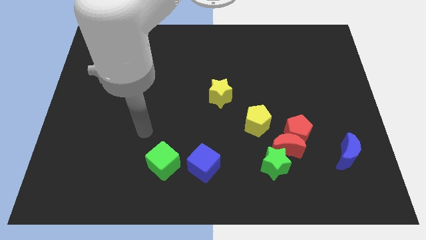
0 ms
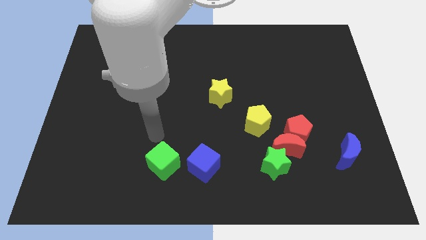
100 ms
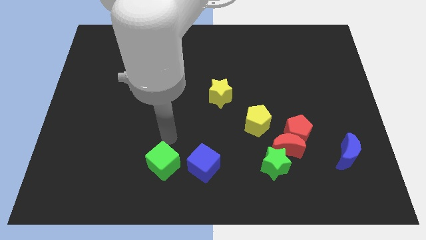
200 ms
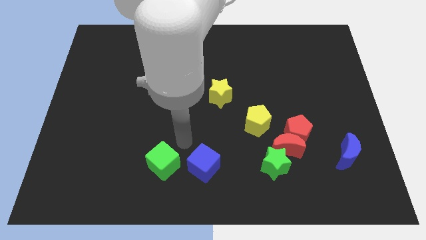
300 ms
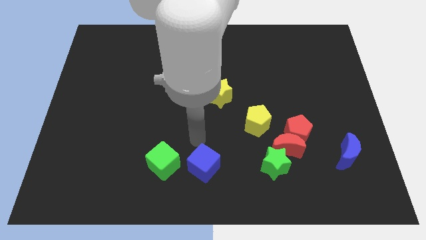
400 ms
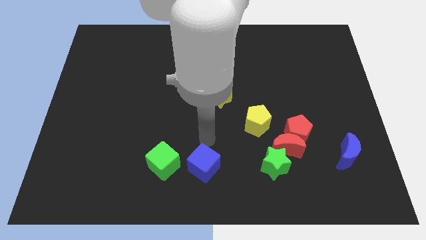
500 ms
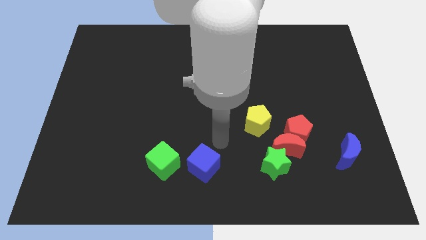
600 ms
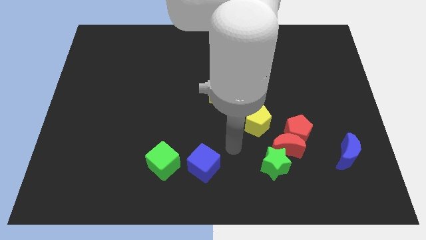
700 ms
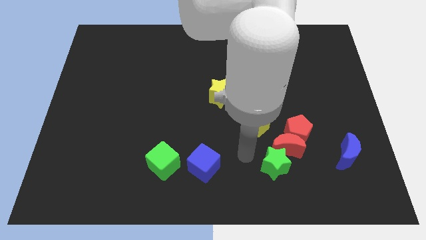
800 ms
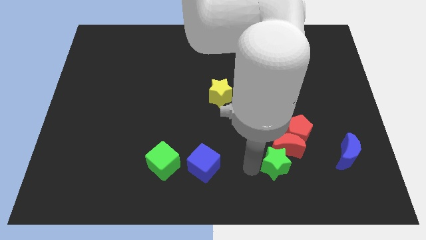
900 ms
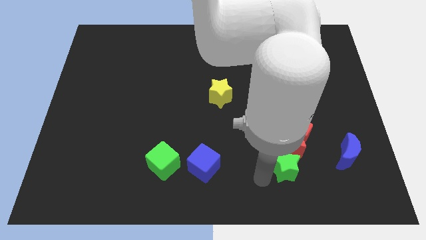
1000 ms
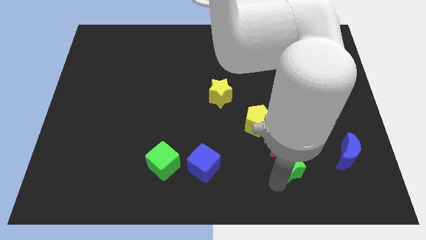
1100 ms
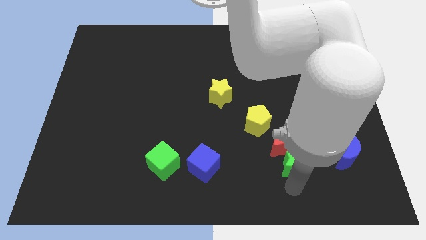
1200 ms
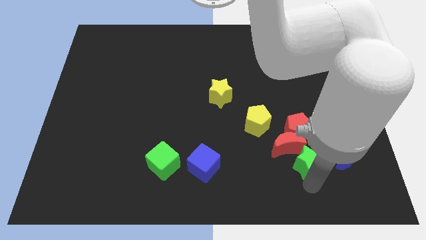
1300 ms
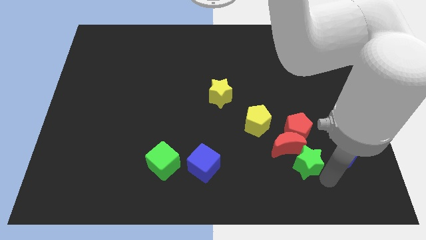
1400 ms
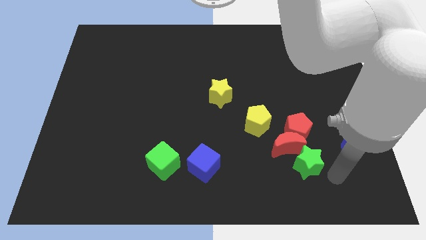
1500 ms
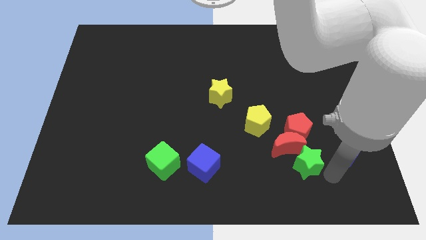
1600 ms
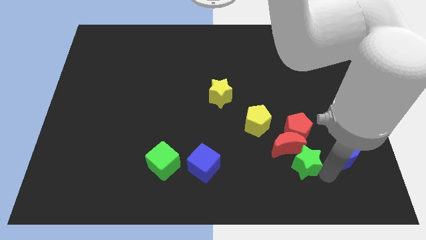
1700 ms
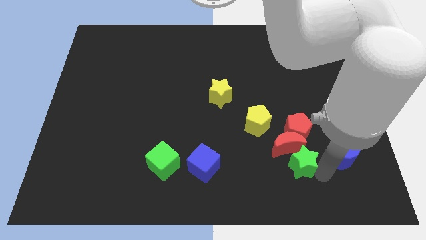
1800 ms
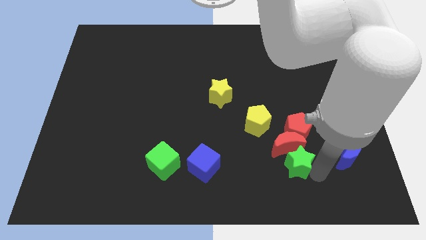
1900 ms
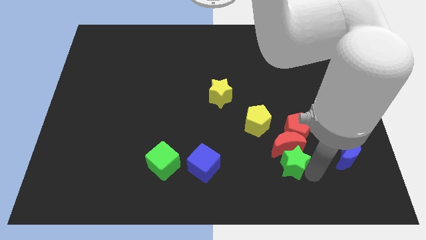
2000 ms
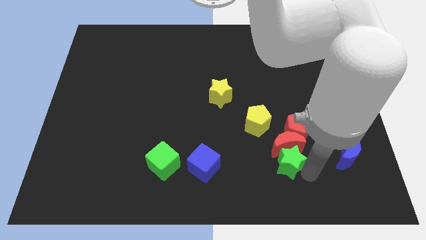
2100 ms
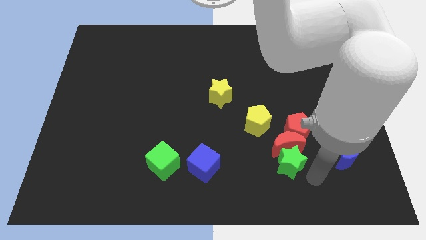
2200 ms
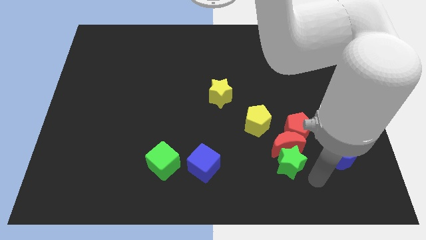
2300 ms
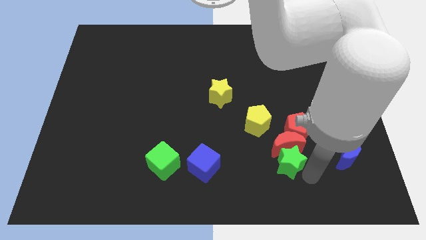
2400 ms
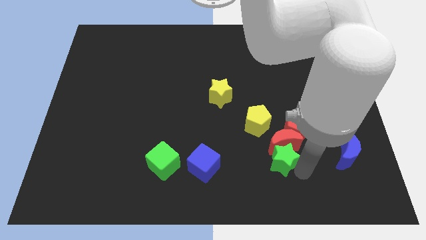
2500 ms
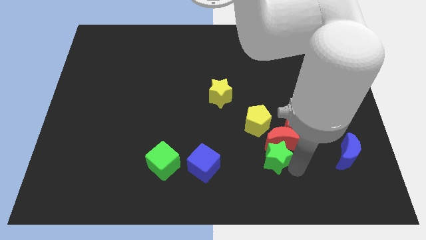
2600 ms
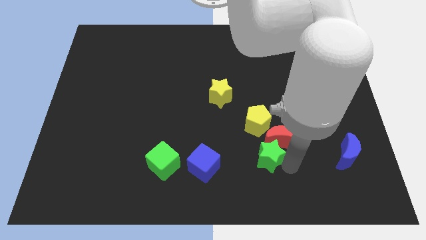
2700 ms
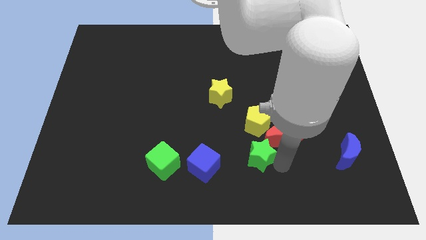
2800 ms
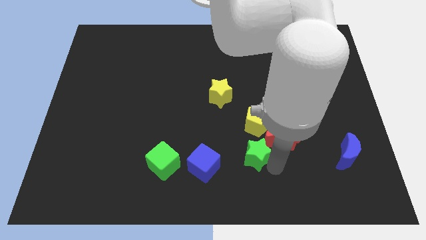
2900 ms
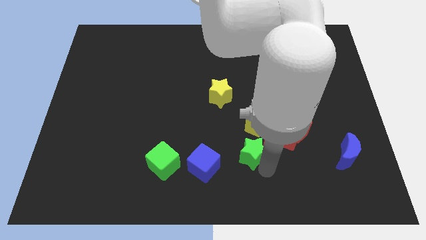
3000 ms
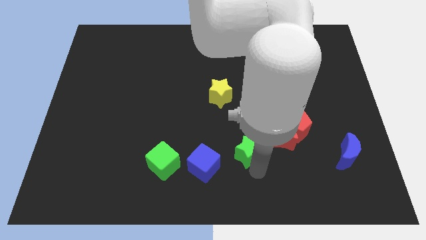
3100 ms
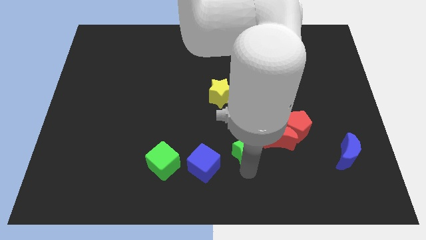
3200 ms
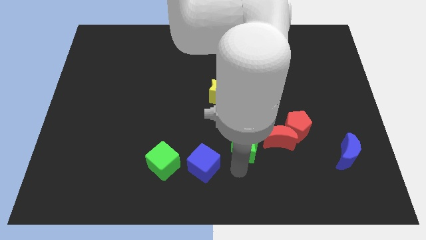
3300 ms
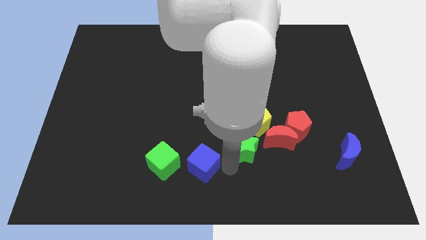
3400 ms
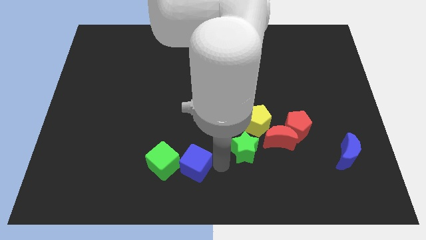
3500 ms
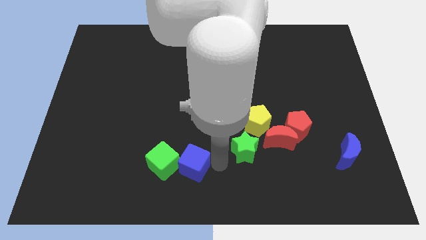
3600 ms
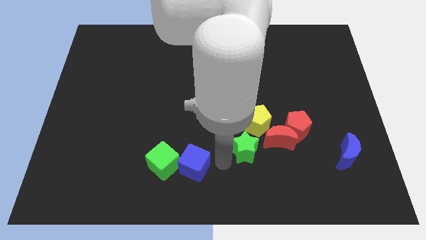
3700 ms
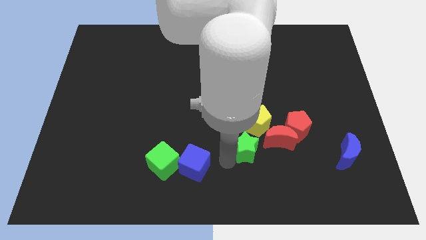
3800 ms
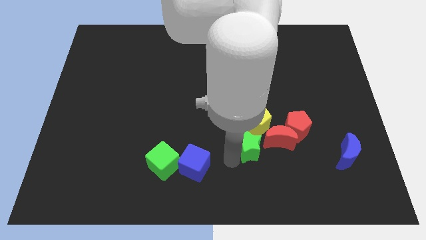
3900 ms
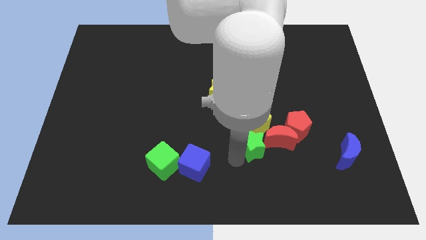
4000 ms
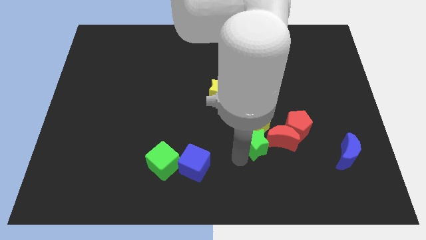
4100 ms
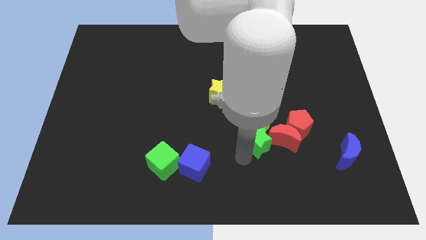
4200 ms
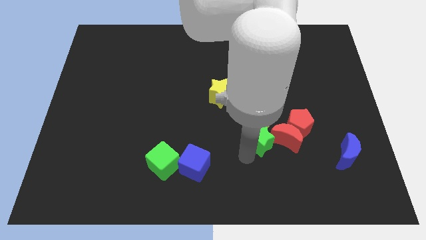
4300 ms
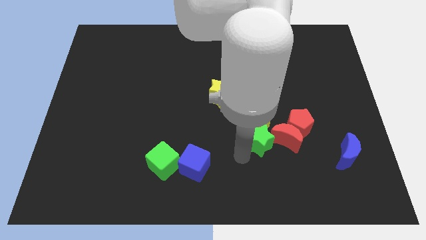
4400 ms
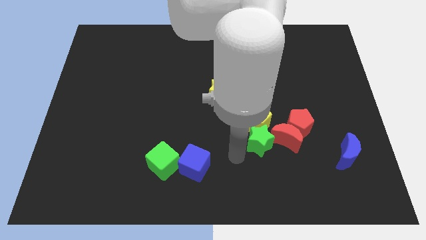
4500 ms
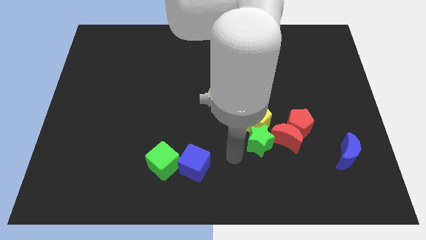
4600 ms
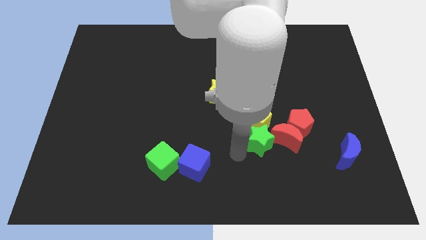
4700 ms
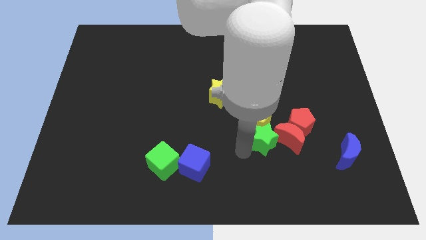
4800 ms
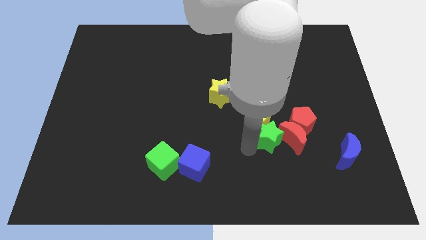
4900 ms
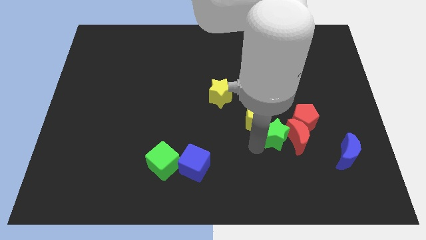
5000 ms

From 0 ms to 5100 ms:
push the green star slightly up

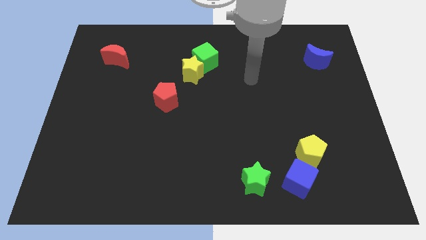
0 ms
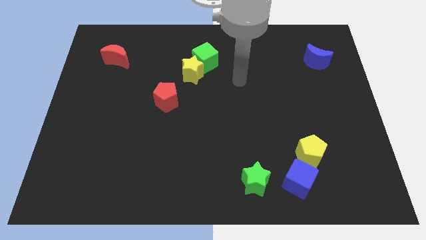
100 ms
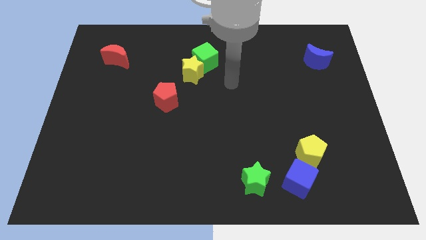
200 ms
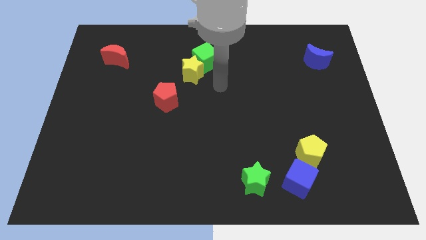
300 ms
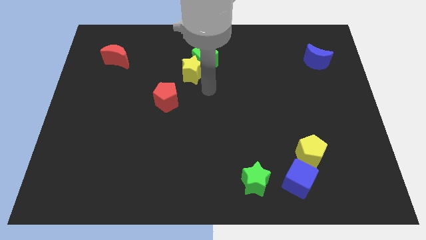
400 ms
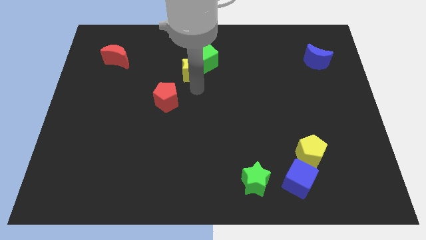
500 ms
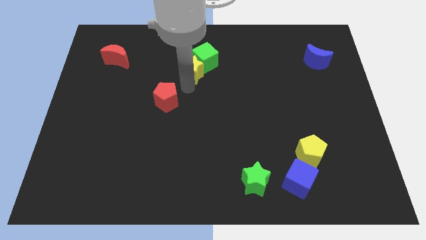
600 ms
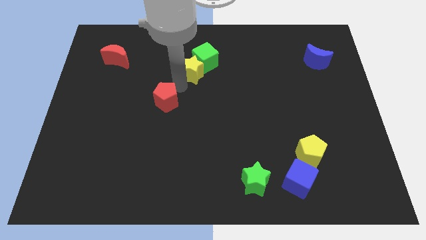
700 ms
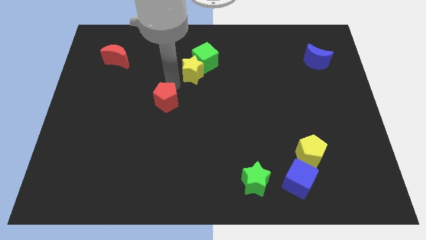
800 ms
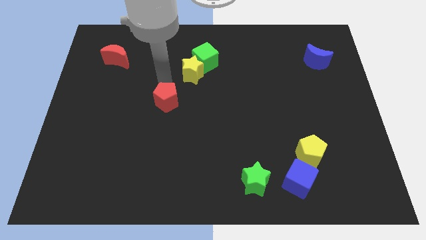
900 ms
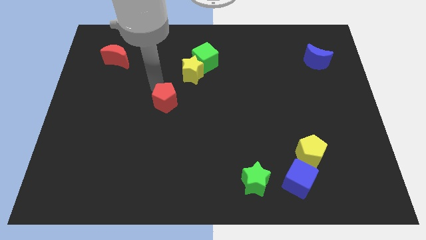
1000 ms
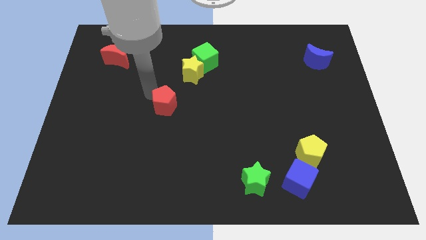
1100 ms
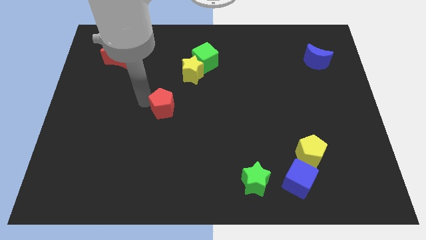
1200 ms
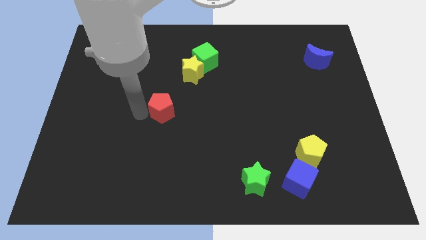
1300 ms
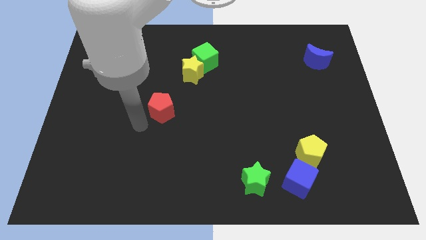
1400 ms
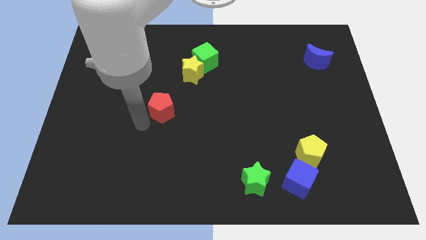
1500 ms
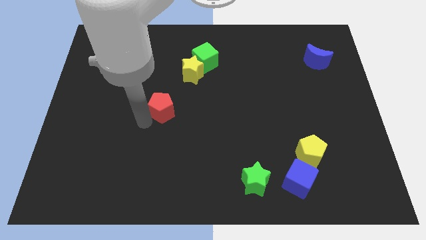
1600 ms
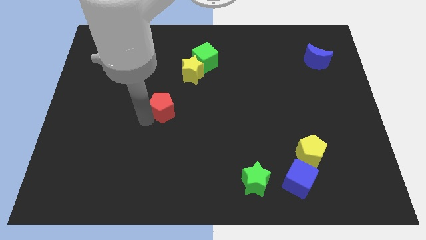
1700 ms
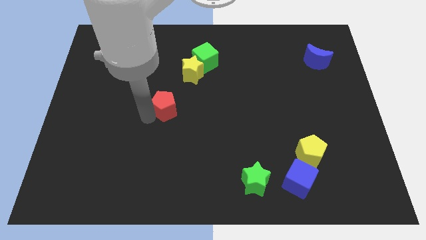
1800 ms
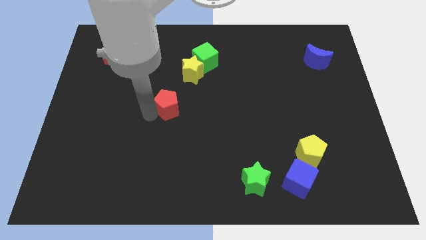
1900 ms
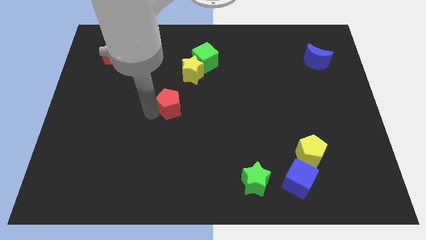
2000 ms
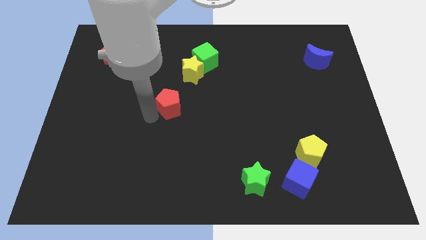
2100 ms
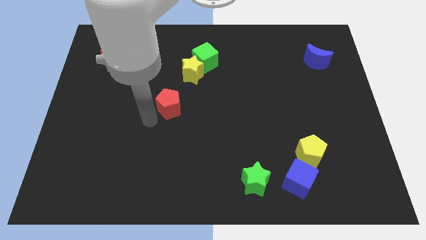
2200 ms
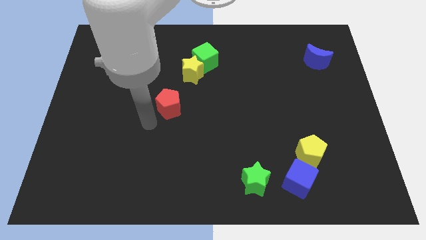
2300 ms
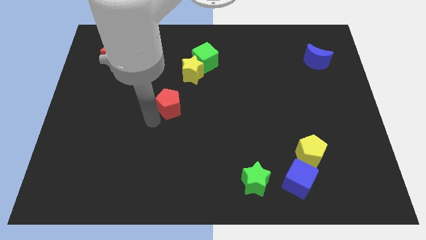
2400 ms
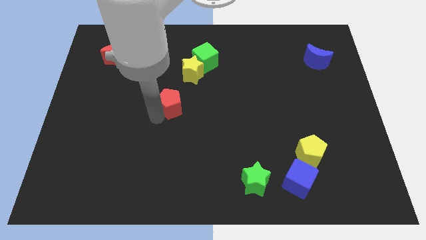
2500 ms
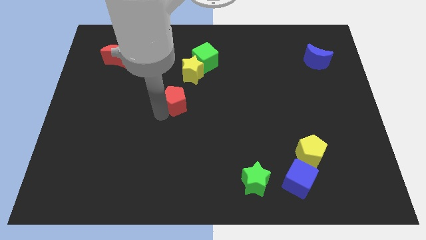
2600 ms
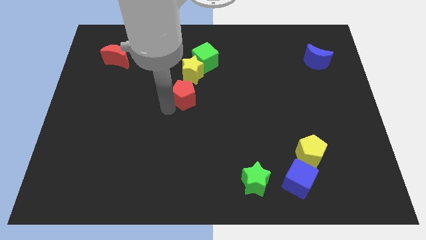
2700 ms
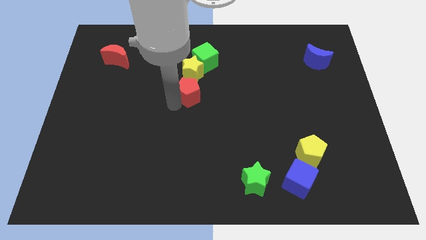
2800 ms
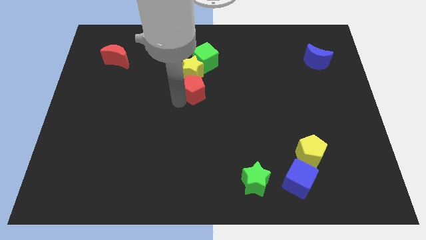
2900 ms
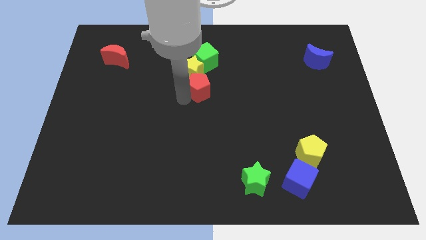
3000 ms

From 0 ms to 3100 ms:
slide the red pentagon slightly diagonally upwards and right

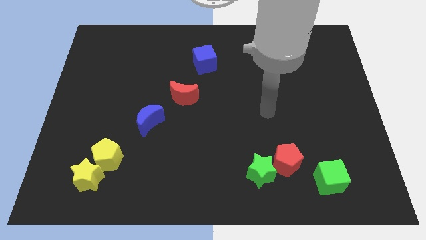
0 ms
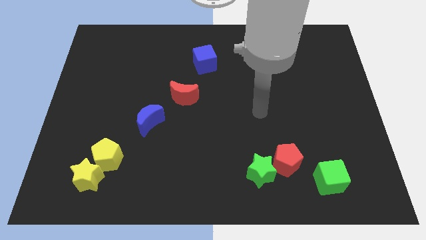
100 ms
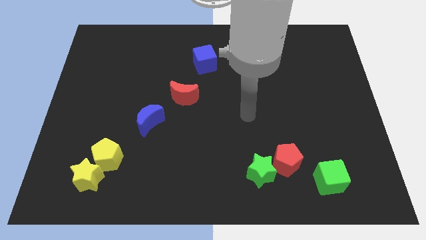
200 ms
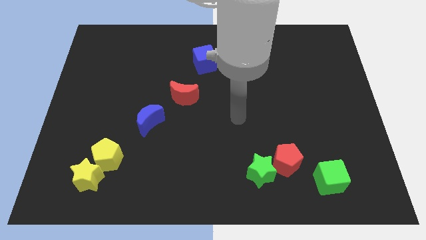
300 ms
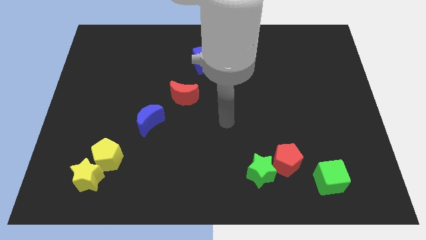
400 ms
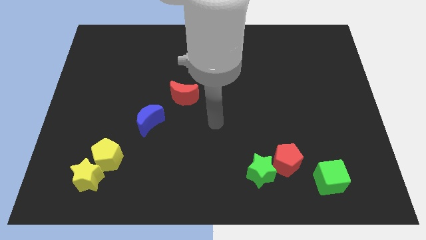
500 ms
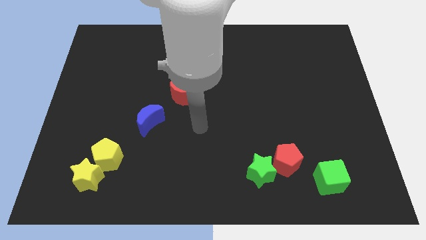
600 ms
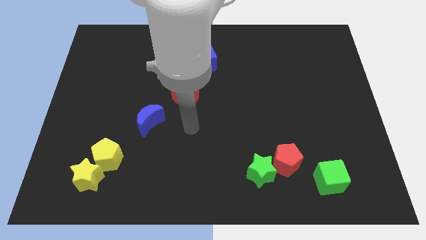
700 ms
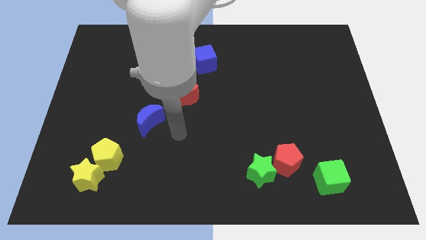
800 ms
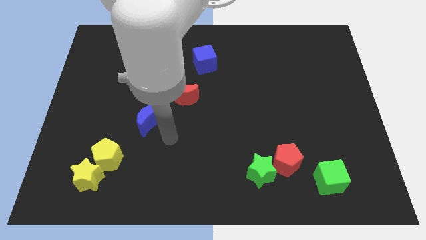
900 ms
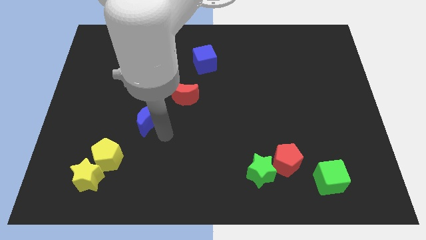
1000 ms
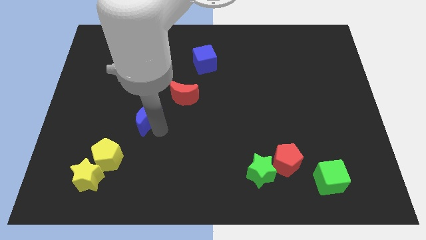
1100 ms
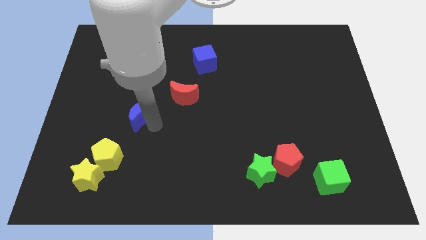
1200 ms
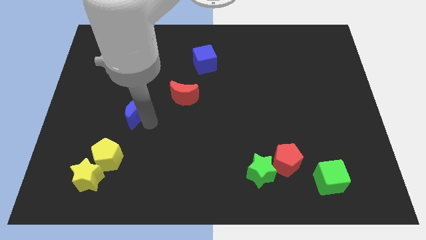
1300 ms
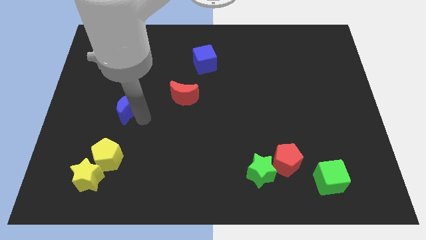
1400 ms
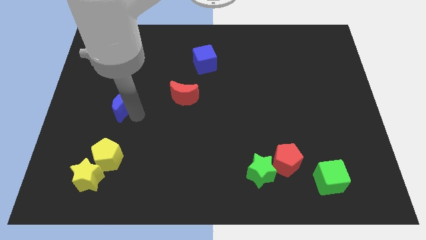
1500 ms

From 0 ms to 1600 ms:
slightly push the blue moon diagonally upwards and to the left
